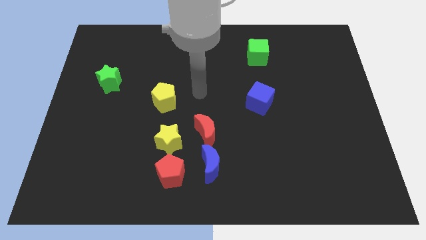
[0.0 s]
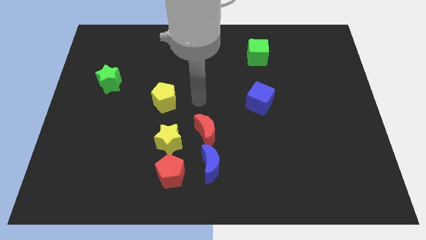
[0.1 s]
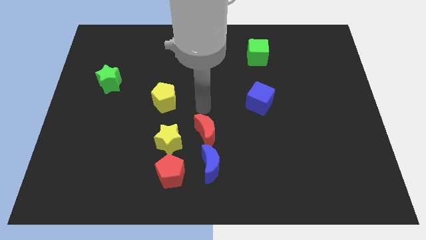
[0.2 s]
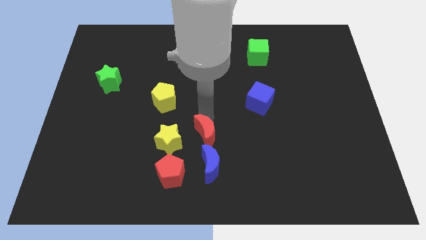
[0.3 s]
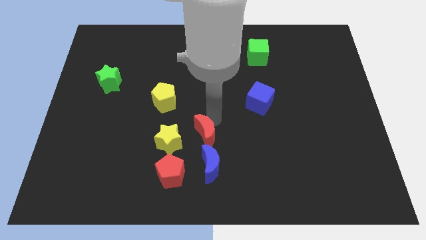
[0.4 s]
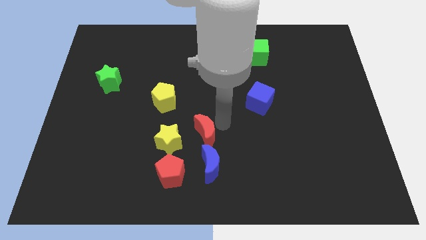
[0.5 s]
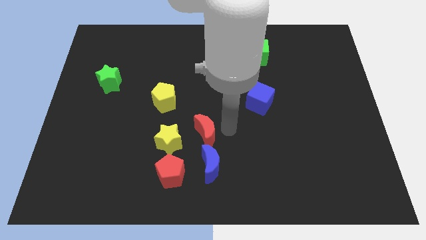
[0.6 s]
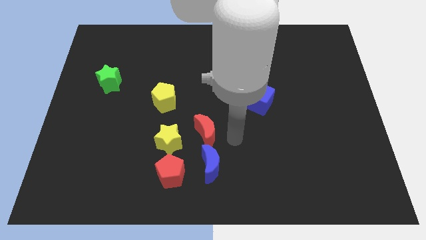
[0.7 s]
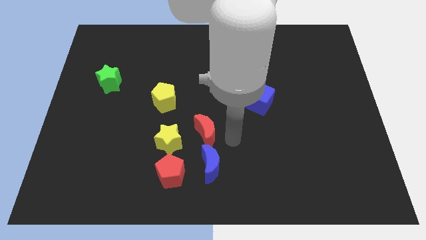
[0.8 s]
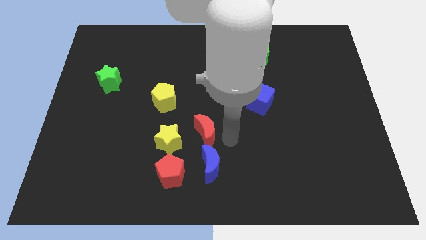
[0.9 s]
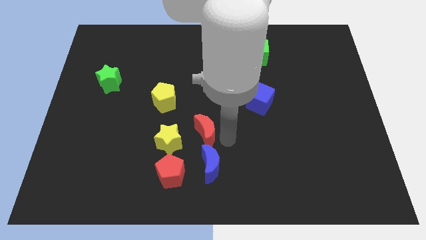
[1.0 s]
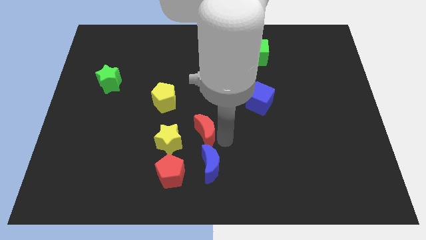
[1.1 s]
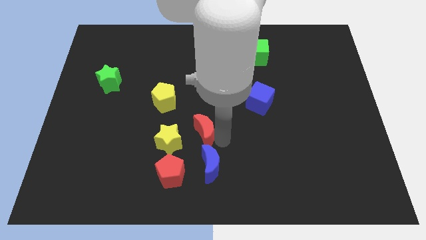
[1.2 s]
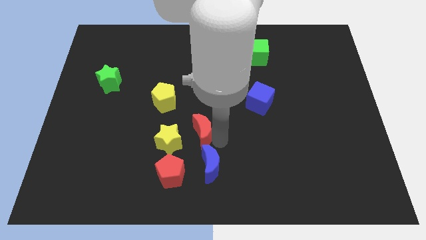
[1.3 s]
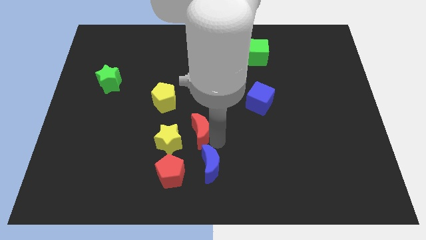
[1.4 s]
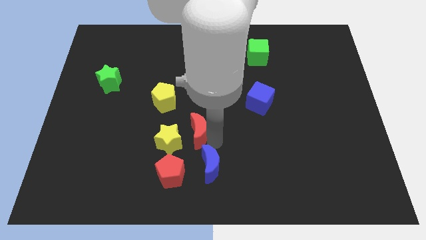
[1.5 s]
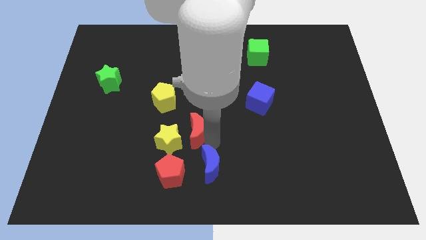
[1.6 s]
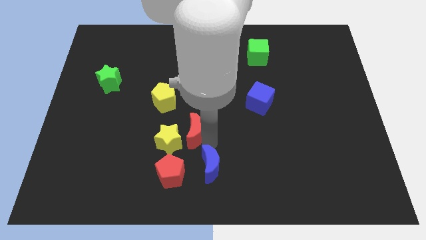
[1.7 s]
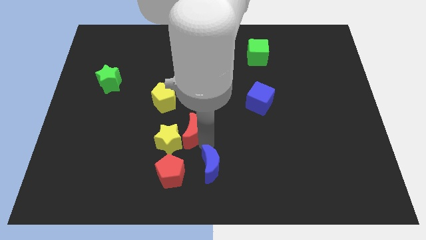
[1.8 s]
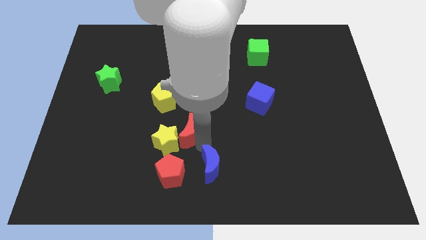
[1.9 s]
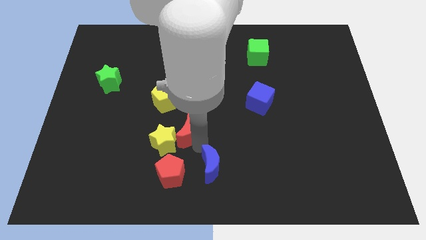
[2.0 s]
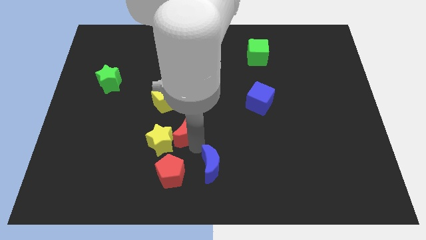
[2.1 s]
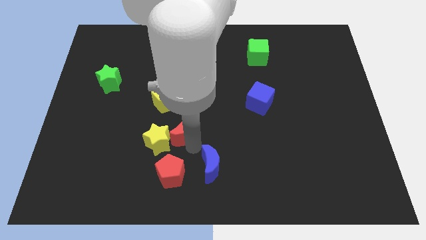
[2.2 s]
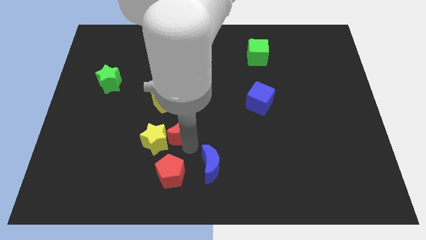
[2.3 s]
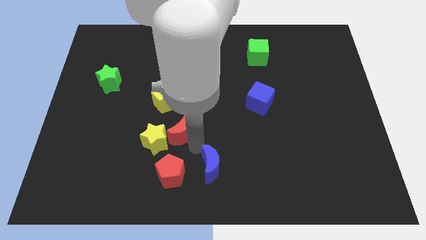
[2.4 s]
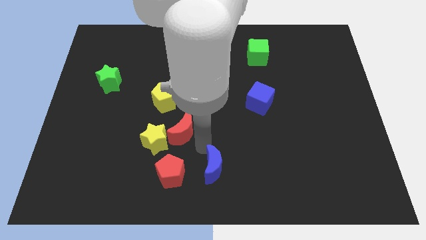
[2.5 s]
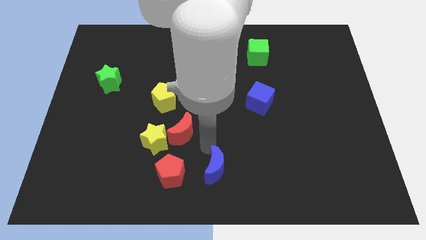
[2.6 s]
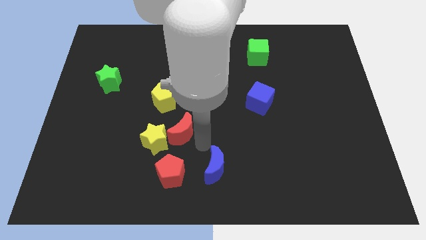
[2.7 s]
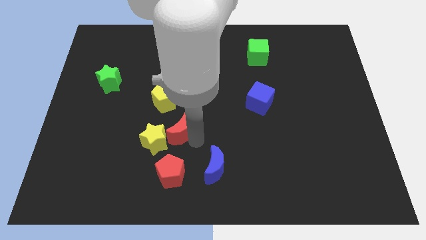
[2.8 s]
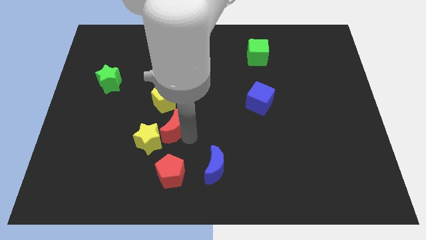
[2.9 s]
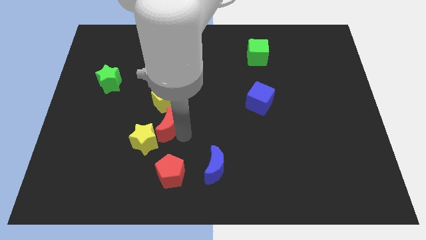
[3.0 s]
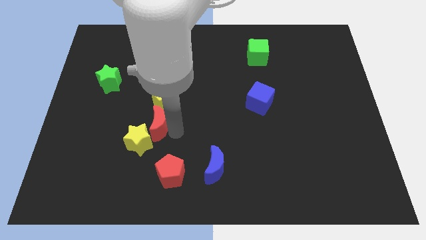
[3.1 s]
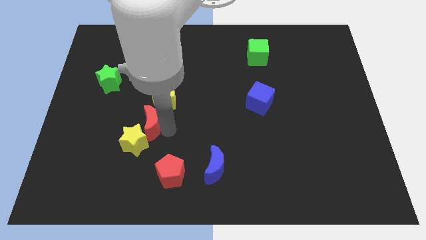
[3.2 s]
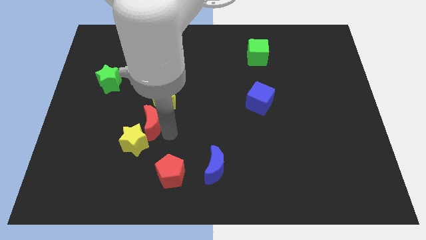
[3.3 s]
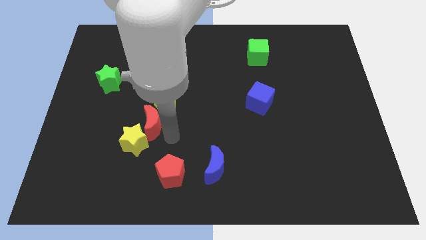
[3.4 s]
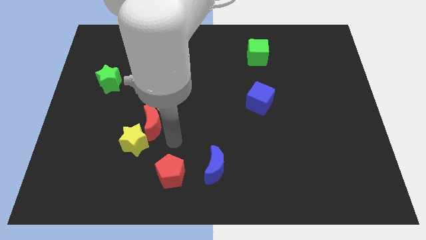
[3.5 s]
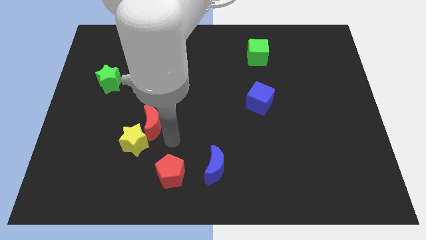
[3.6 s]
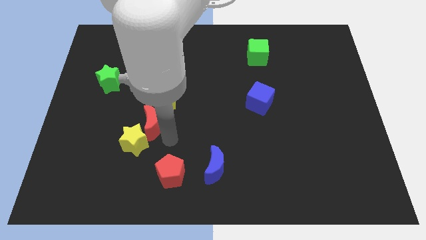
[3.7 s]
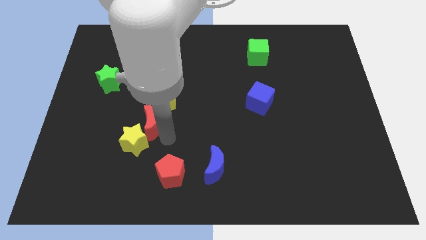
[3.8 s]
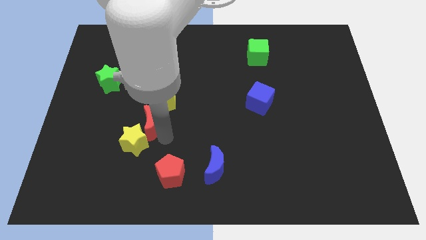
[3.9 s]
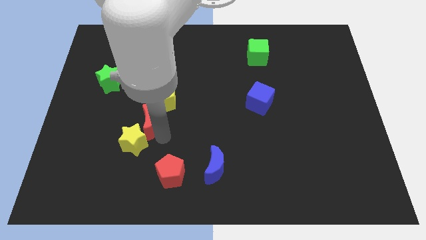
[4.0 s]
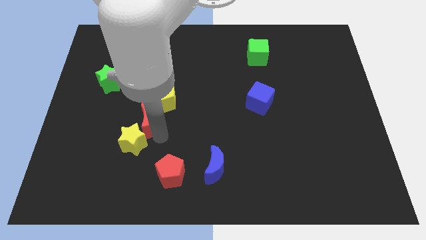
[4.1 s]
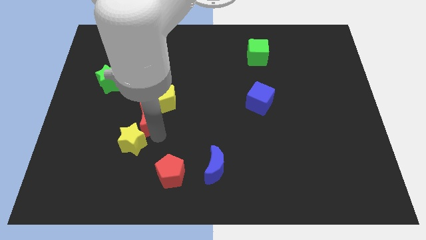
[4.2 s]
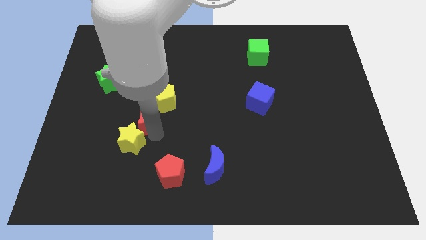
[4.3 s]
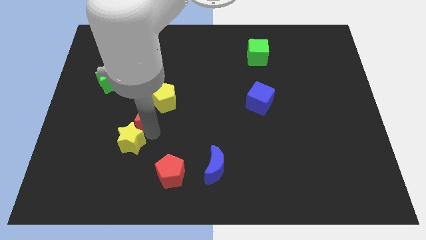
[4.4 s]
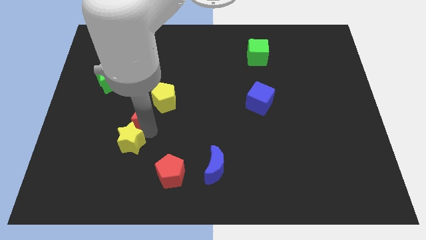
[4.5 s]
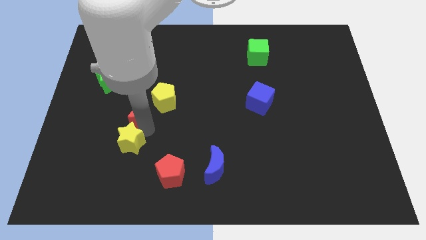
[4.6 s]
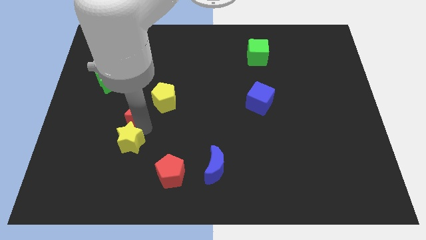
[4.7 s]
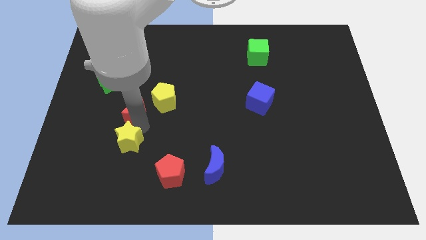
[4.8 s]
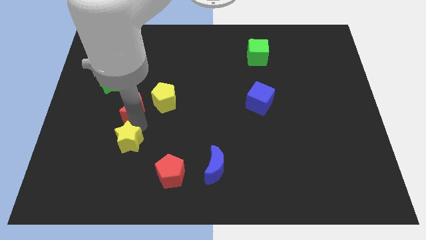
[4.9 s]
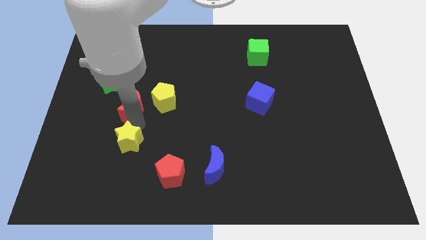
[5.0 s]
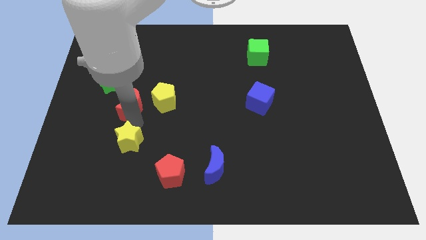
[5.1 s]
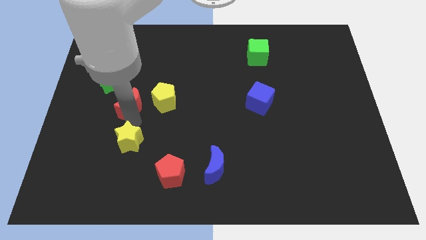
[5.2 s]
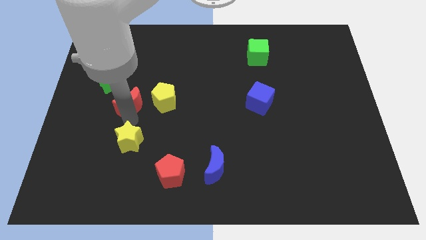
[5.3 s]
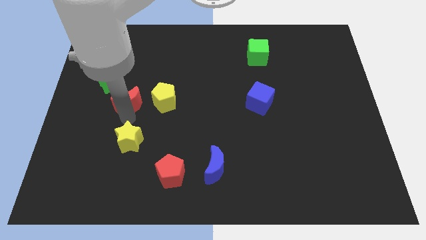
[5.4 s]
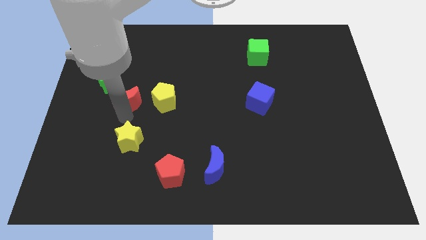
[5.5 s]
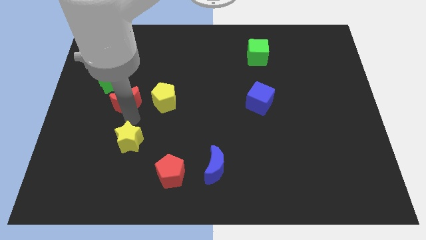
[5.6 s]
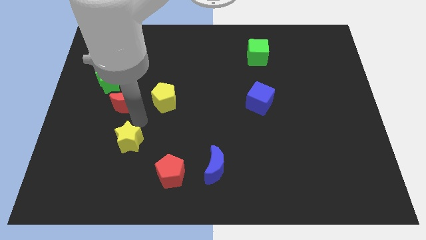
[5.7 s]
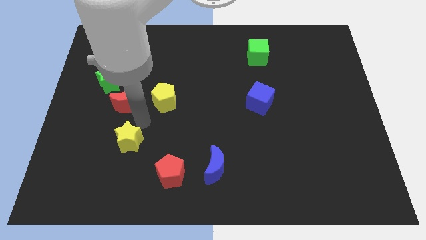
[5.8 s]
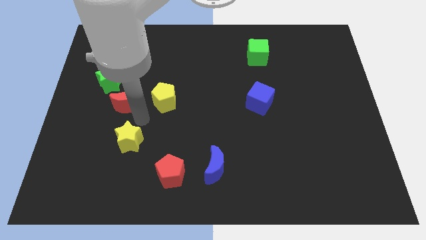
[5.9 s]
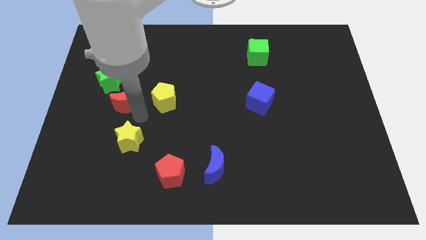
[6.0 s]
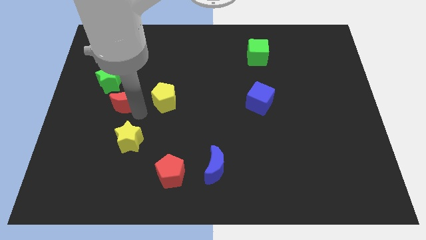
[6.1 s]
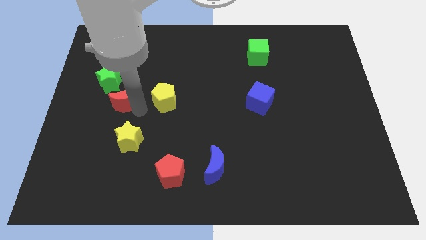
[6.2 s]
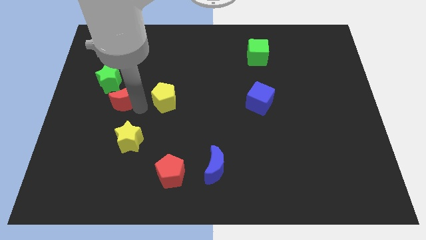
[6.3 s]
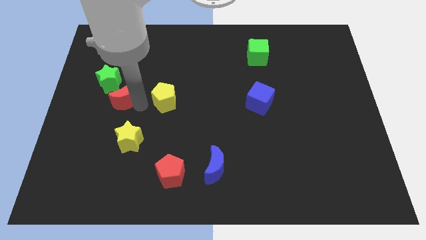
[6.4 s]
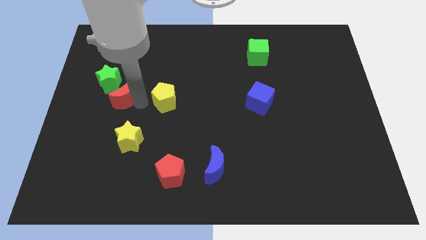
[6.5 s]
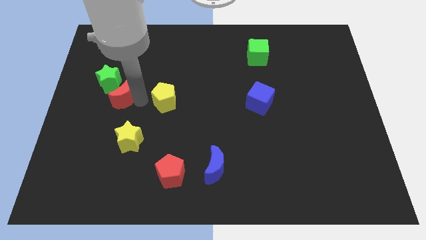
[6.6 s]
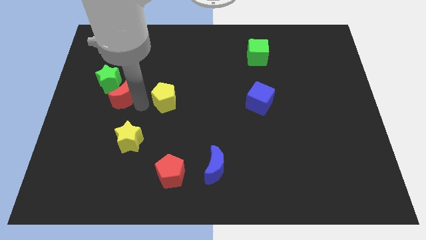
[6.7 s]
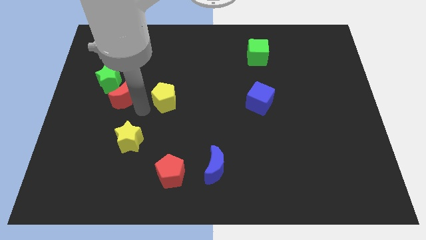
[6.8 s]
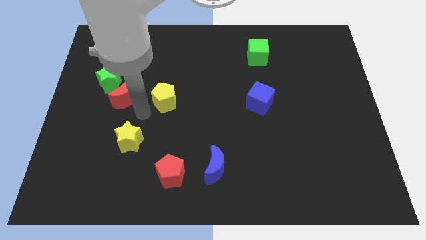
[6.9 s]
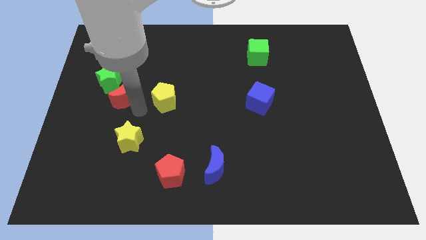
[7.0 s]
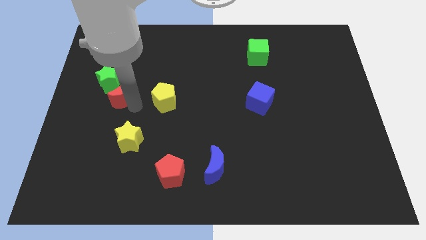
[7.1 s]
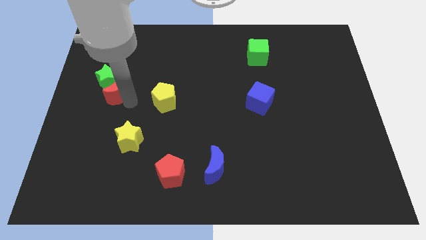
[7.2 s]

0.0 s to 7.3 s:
put the red moon to the green star

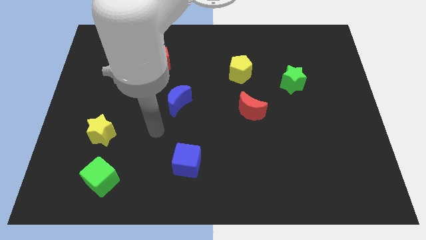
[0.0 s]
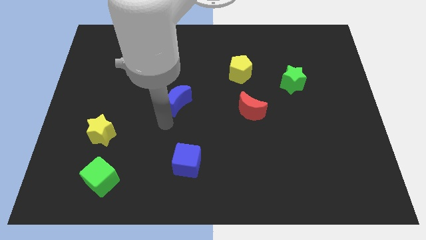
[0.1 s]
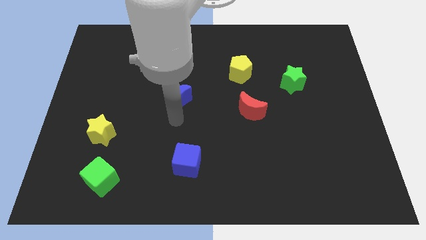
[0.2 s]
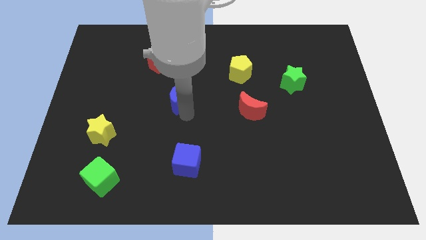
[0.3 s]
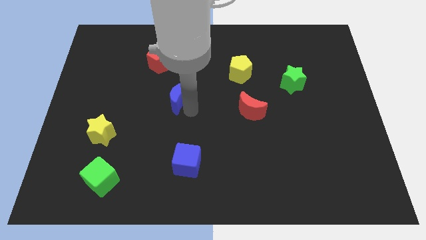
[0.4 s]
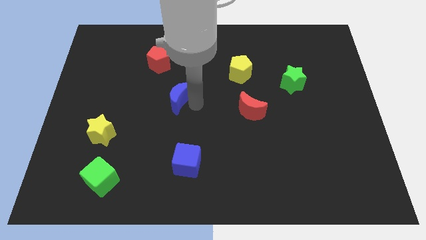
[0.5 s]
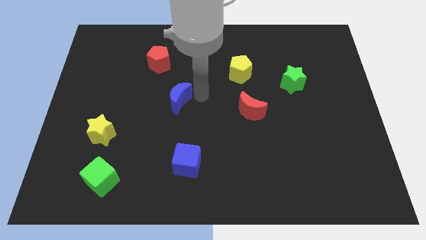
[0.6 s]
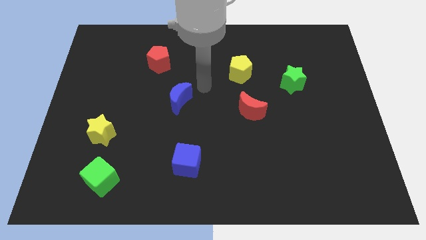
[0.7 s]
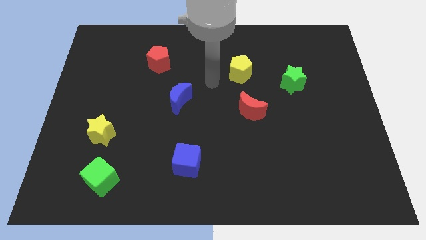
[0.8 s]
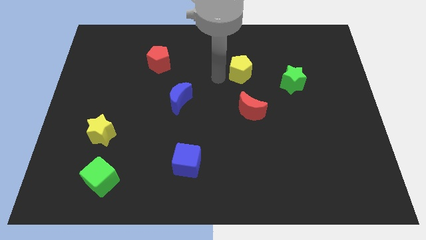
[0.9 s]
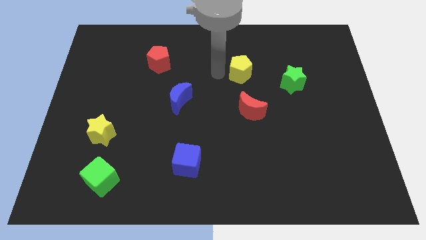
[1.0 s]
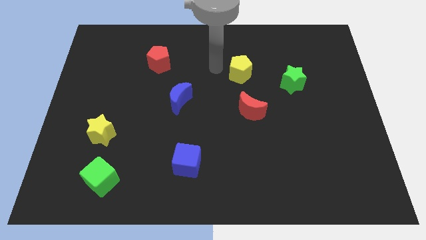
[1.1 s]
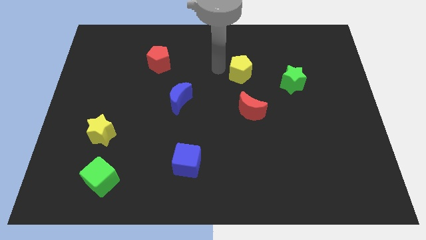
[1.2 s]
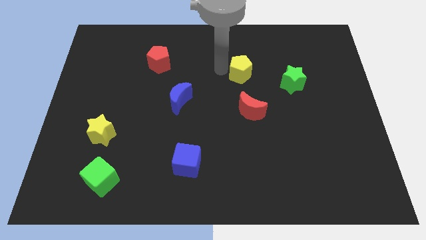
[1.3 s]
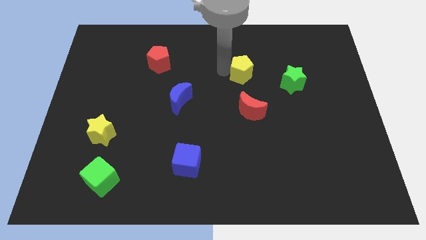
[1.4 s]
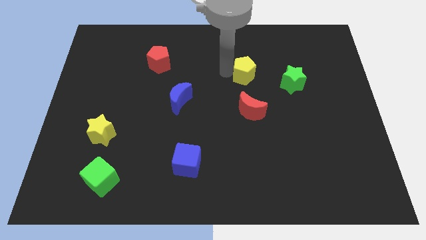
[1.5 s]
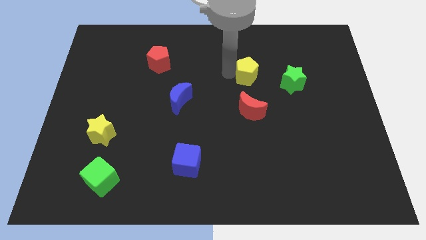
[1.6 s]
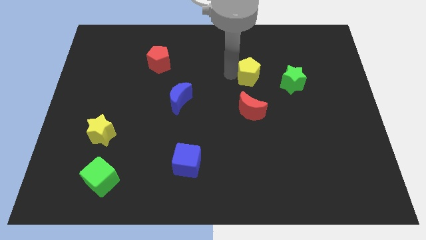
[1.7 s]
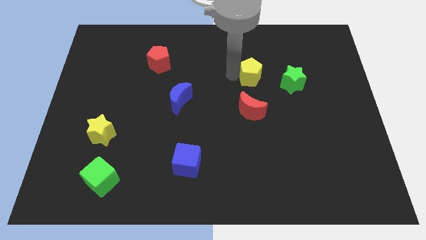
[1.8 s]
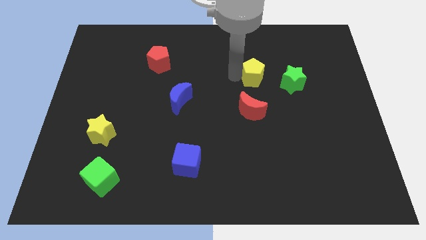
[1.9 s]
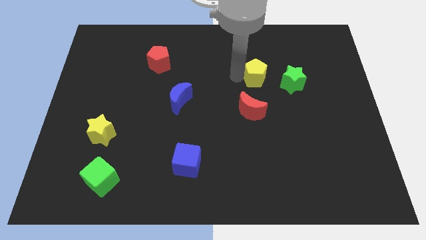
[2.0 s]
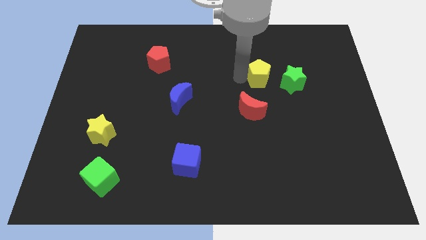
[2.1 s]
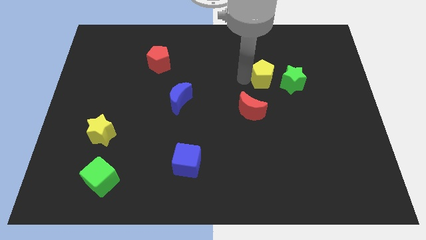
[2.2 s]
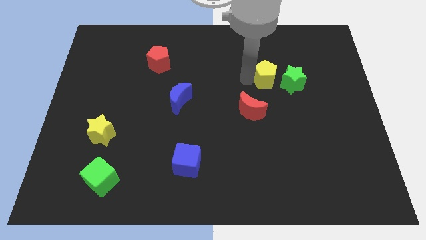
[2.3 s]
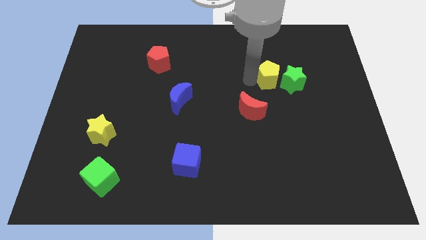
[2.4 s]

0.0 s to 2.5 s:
move the yellow pentagon towards the green star
